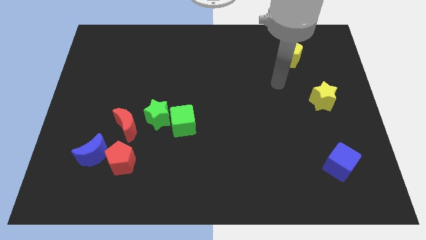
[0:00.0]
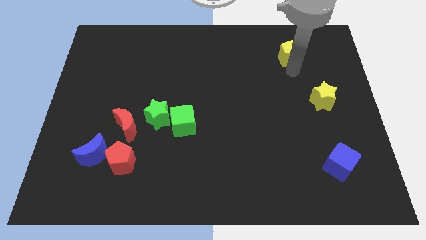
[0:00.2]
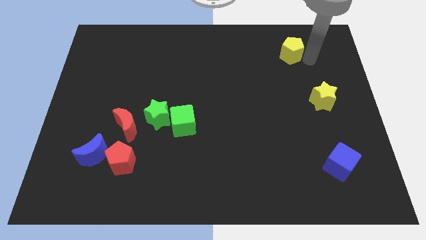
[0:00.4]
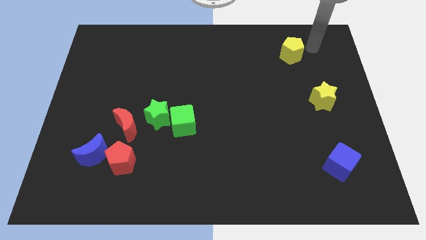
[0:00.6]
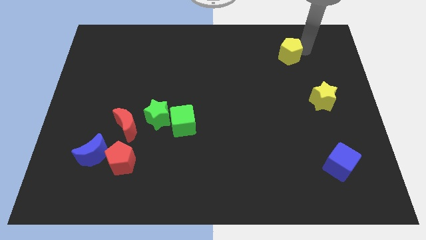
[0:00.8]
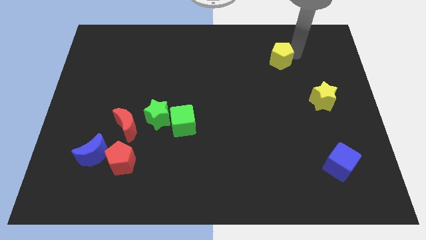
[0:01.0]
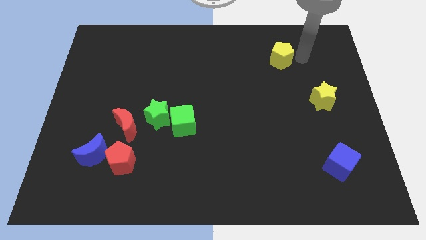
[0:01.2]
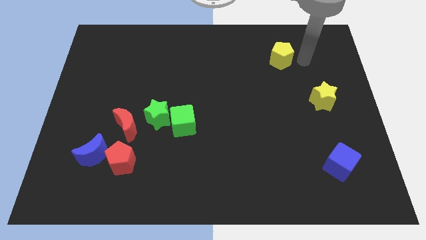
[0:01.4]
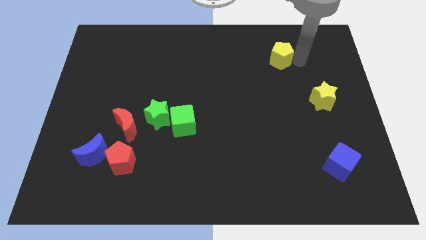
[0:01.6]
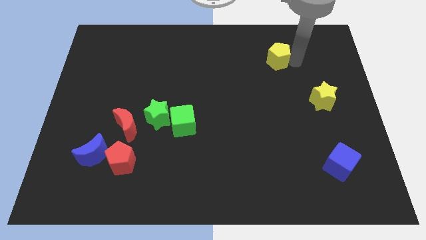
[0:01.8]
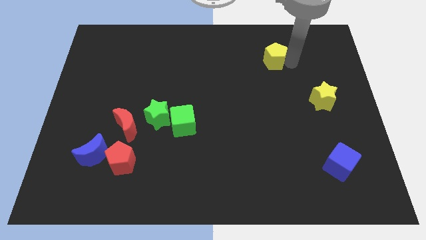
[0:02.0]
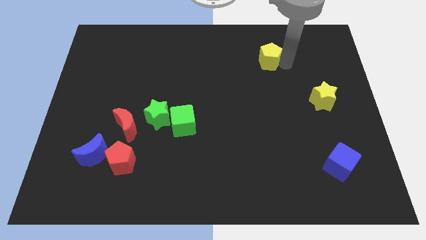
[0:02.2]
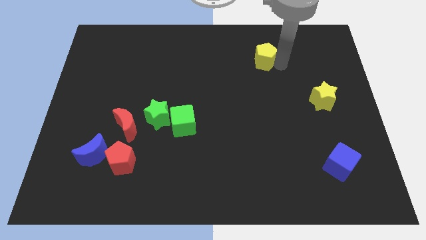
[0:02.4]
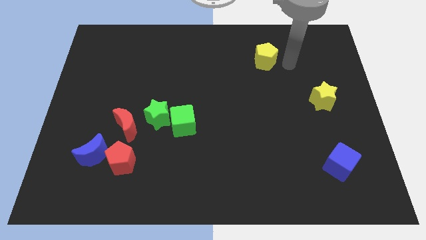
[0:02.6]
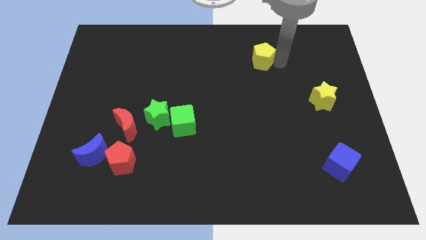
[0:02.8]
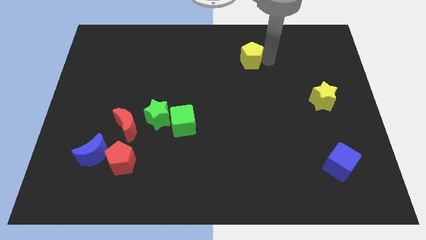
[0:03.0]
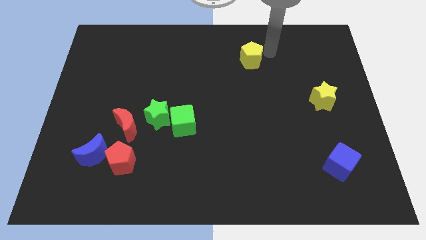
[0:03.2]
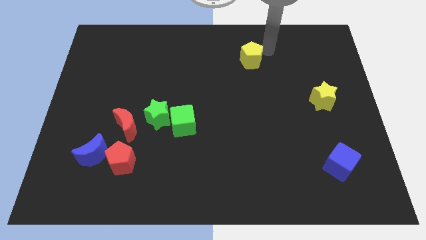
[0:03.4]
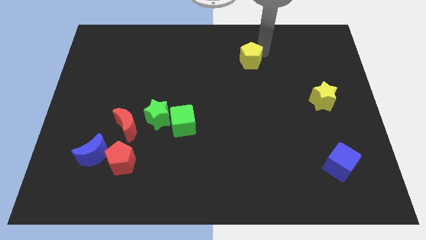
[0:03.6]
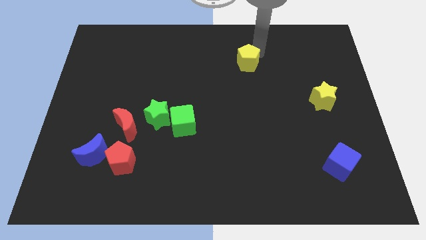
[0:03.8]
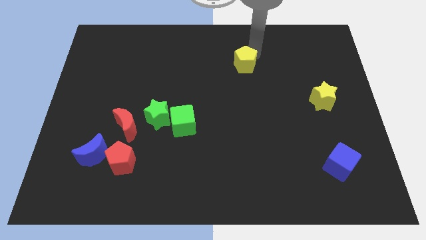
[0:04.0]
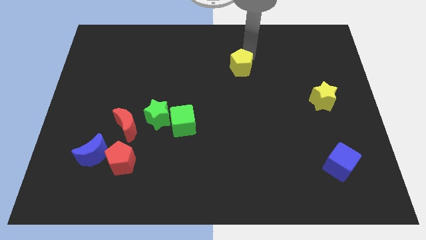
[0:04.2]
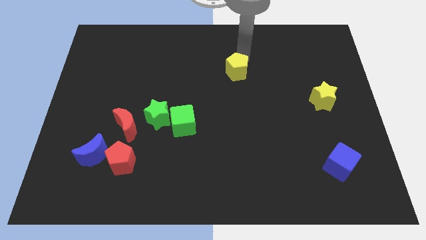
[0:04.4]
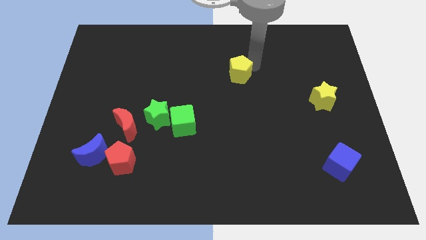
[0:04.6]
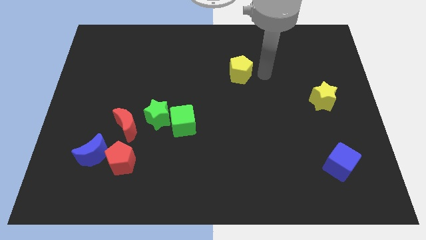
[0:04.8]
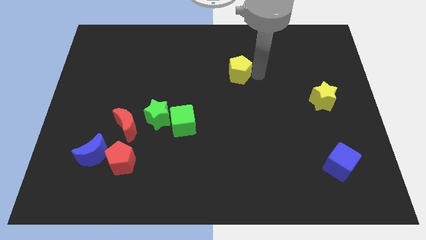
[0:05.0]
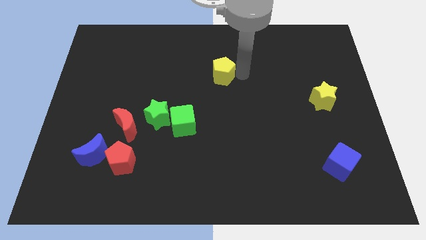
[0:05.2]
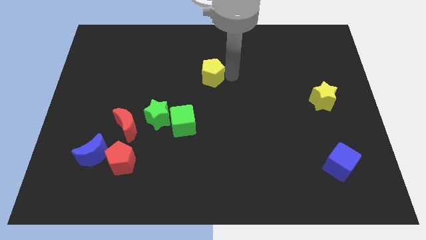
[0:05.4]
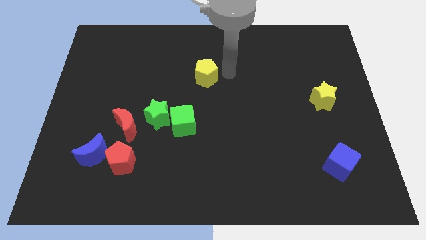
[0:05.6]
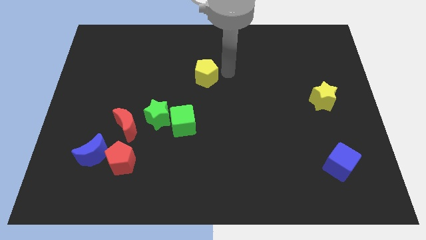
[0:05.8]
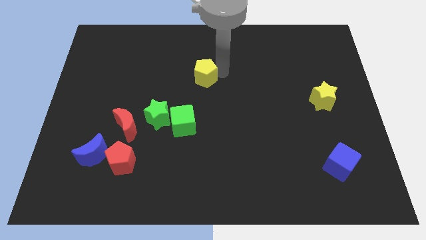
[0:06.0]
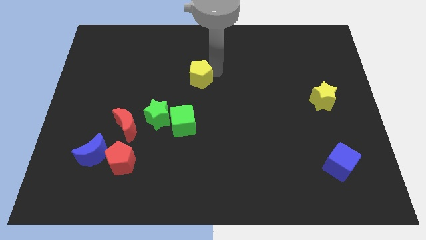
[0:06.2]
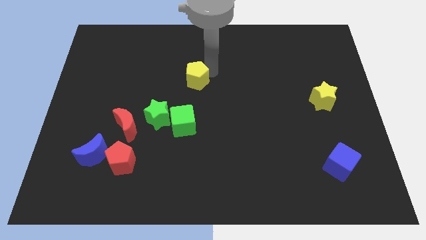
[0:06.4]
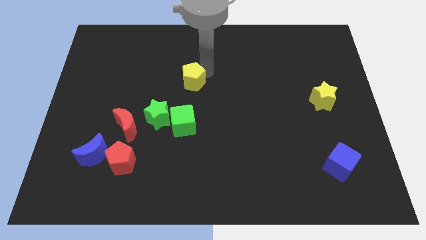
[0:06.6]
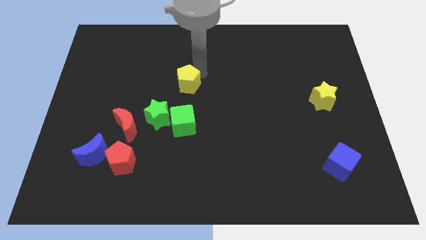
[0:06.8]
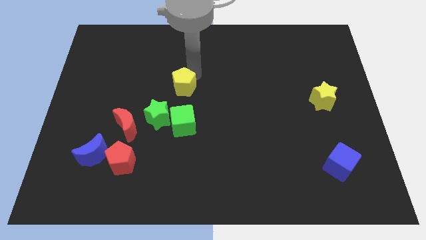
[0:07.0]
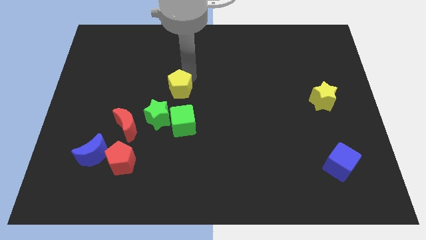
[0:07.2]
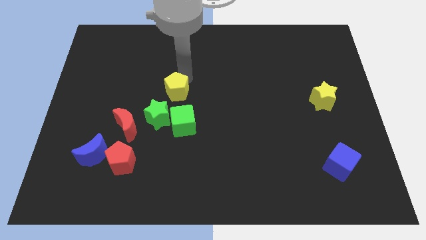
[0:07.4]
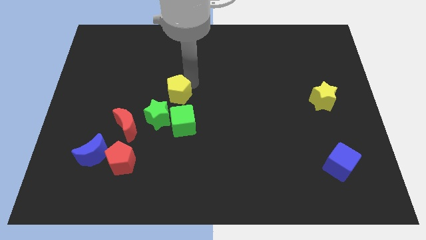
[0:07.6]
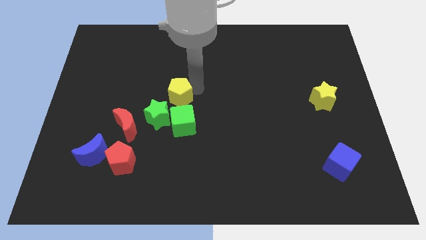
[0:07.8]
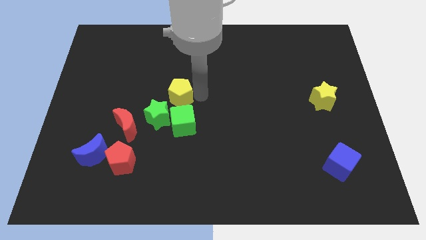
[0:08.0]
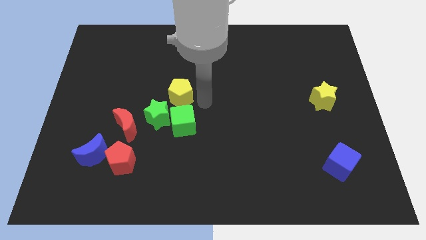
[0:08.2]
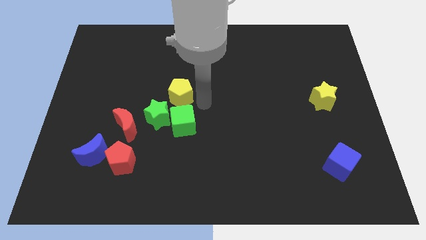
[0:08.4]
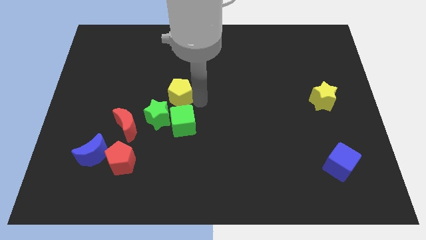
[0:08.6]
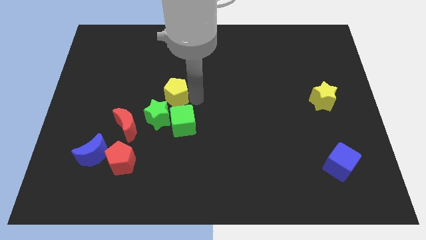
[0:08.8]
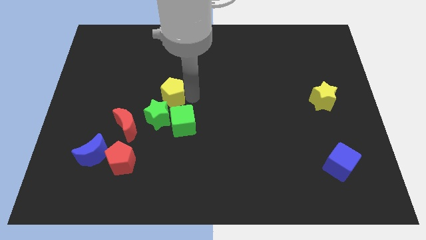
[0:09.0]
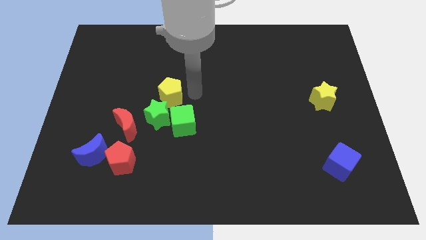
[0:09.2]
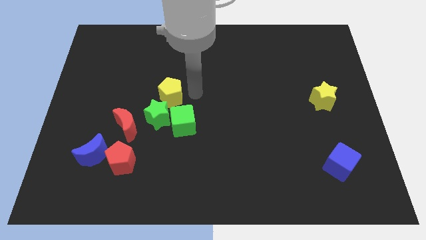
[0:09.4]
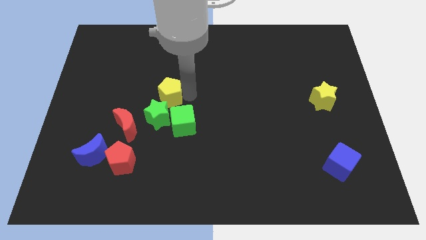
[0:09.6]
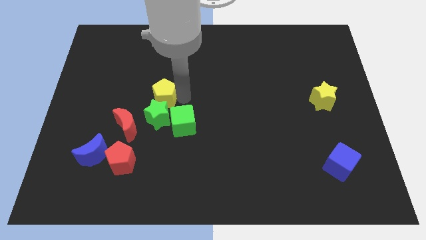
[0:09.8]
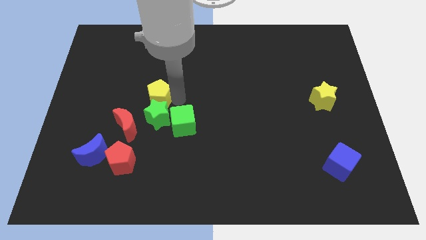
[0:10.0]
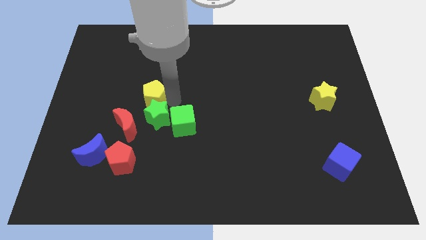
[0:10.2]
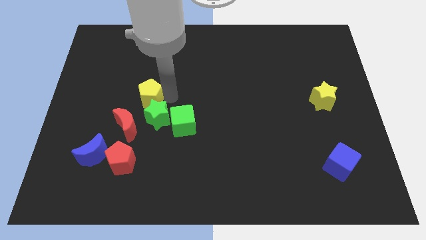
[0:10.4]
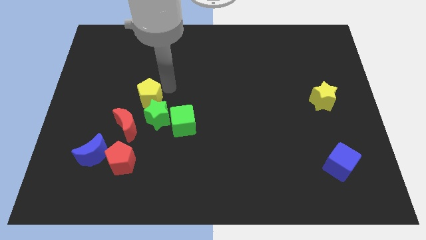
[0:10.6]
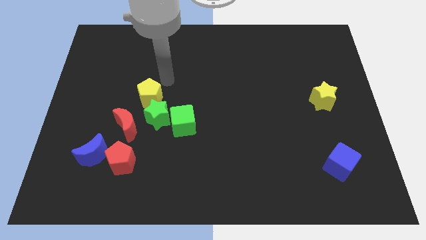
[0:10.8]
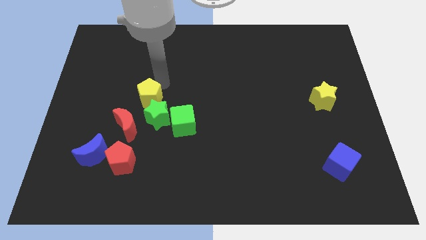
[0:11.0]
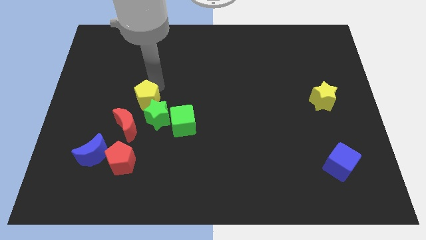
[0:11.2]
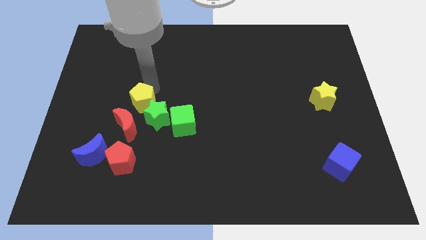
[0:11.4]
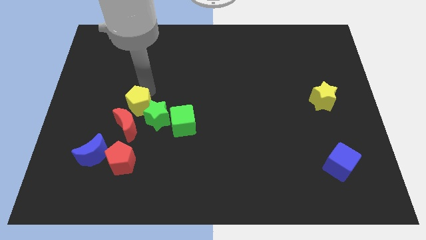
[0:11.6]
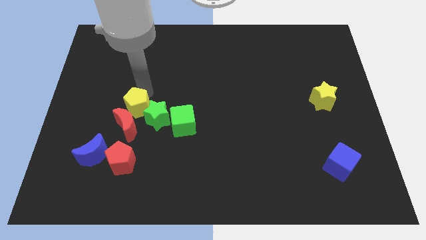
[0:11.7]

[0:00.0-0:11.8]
put the yellow pentagon to the red moon

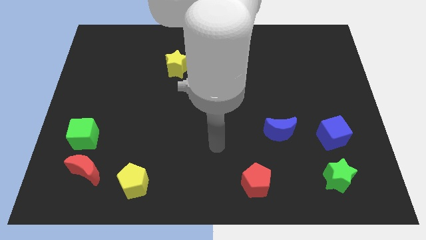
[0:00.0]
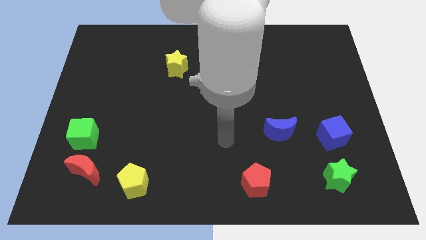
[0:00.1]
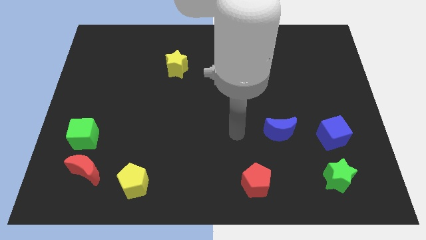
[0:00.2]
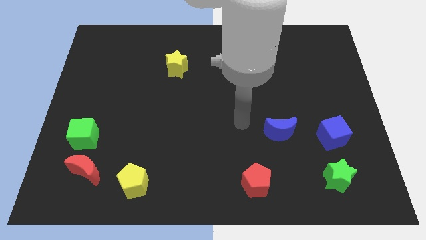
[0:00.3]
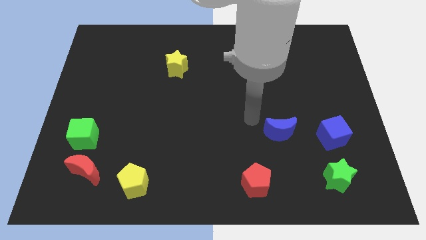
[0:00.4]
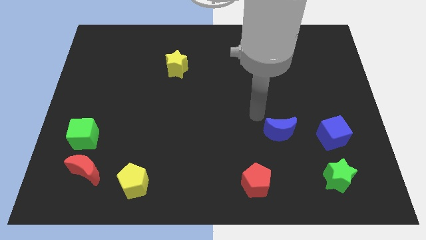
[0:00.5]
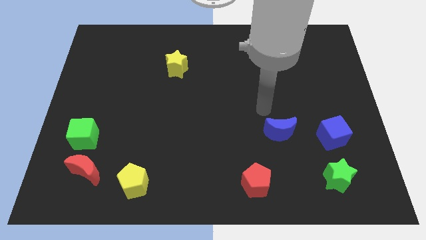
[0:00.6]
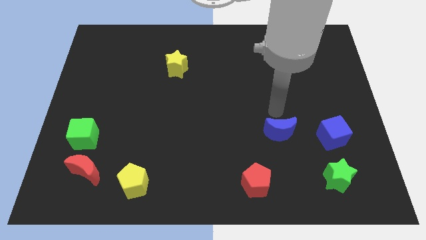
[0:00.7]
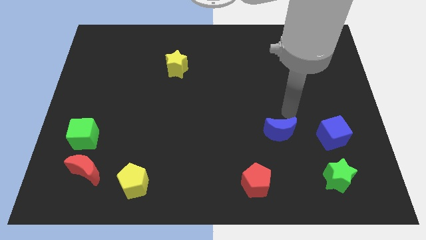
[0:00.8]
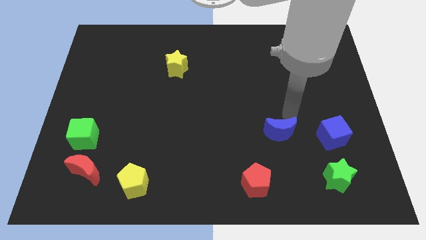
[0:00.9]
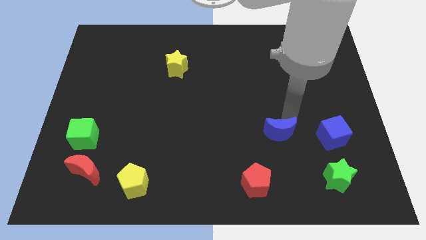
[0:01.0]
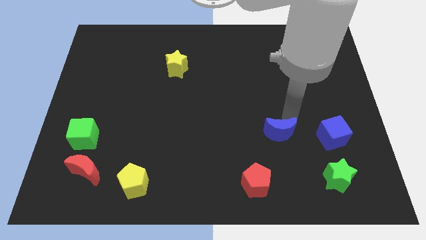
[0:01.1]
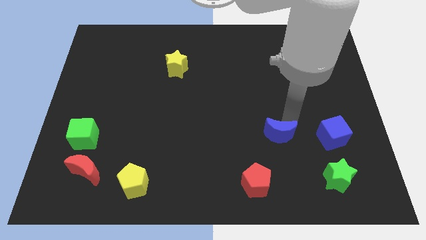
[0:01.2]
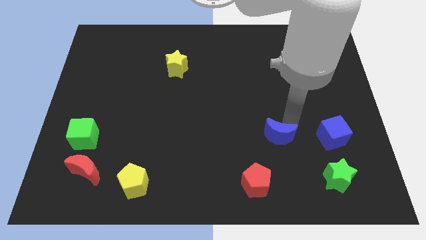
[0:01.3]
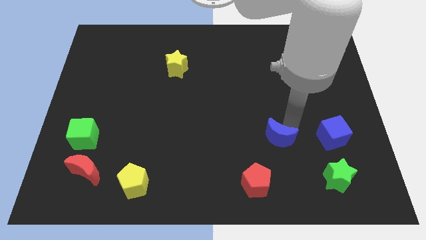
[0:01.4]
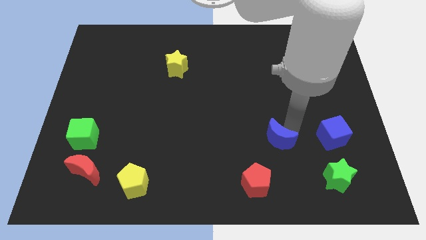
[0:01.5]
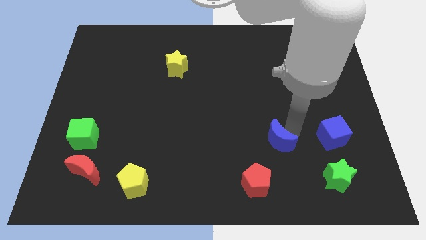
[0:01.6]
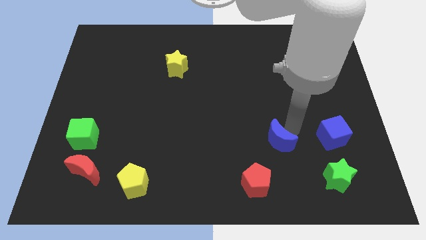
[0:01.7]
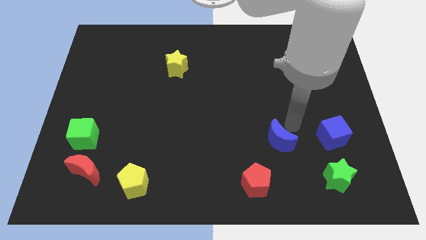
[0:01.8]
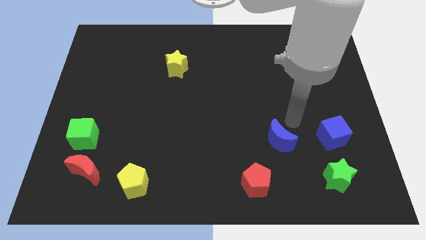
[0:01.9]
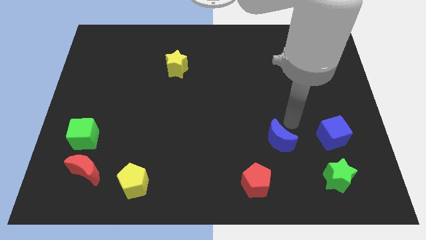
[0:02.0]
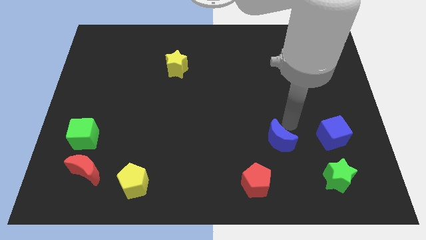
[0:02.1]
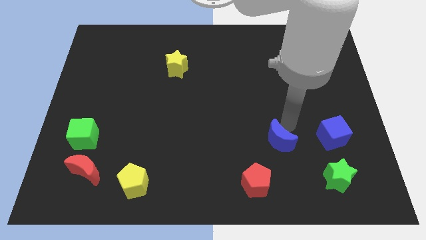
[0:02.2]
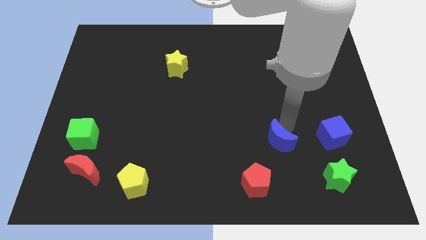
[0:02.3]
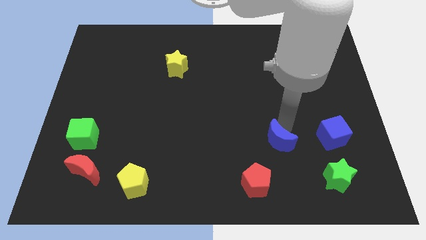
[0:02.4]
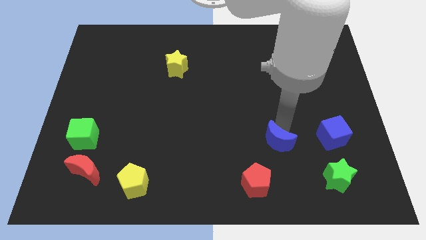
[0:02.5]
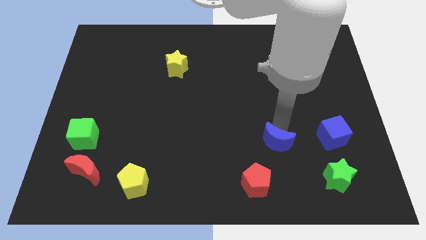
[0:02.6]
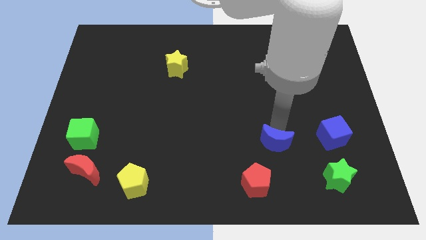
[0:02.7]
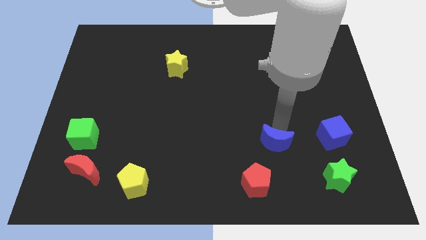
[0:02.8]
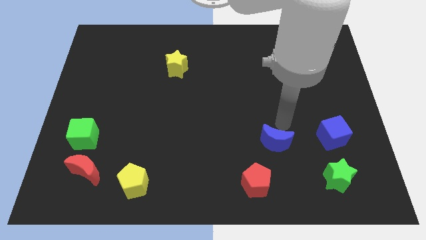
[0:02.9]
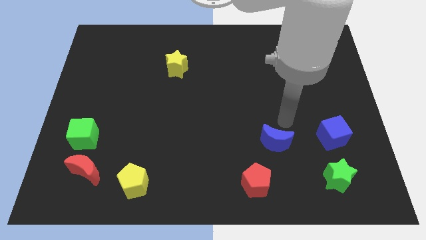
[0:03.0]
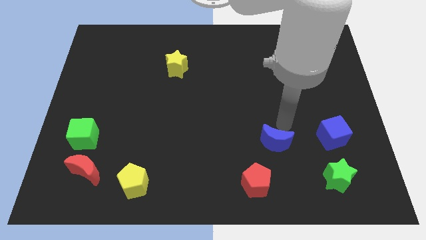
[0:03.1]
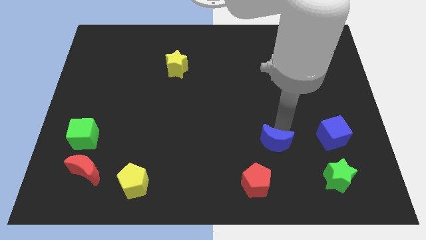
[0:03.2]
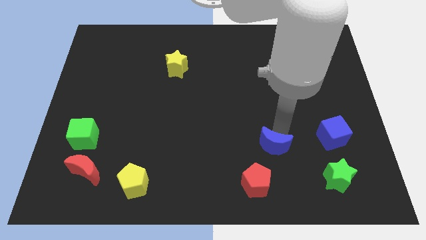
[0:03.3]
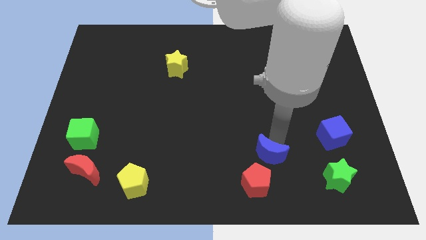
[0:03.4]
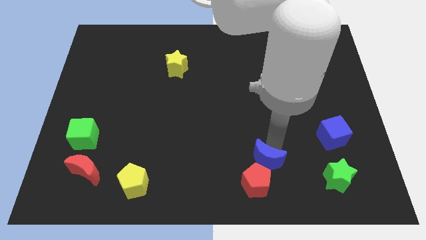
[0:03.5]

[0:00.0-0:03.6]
put the blue moon towards the red pentagon
